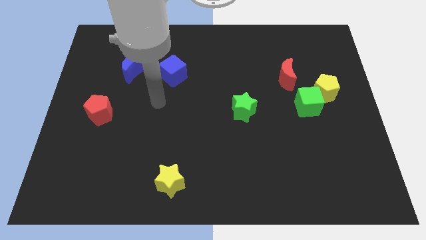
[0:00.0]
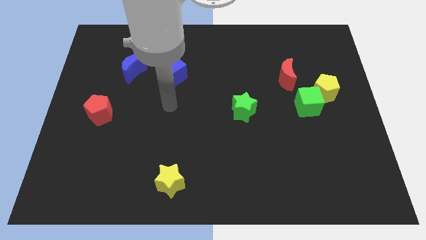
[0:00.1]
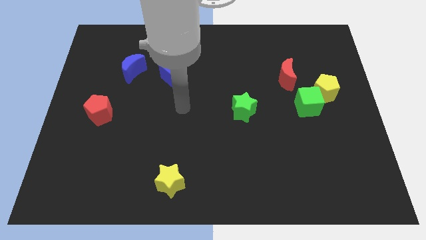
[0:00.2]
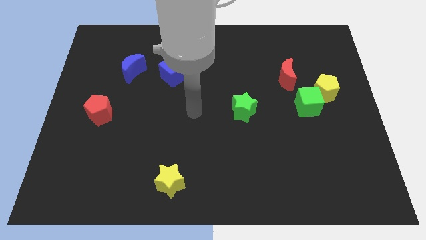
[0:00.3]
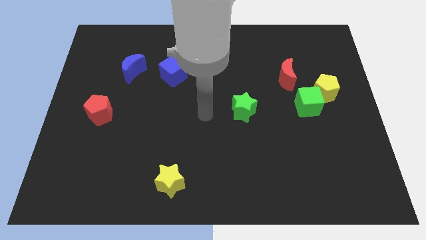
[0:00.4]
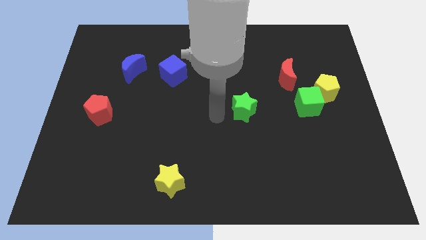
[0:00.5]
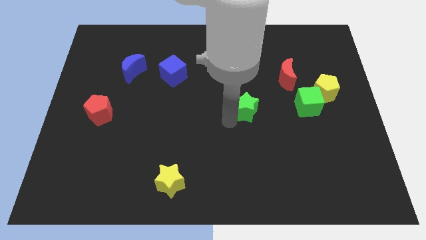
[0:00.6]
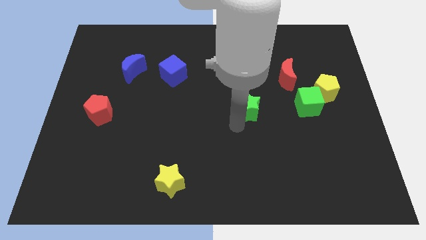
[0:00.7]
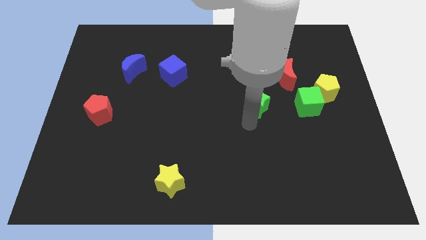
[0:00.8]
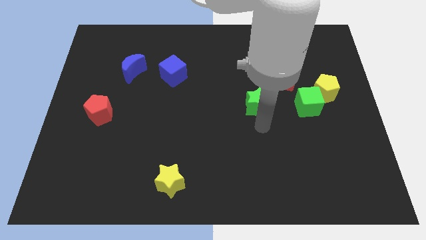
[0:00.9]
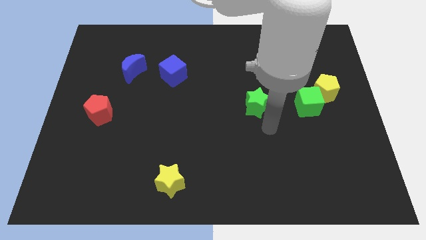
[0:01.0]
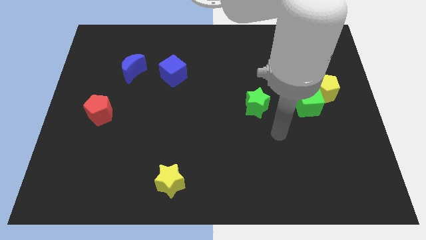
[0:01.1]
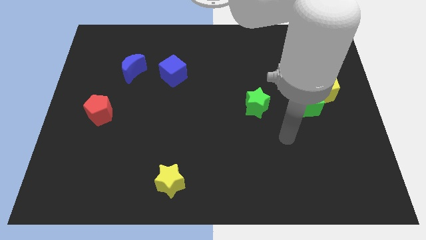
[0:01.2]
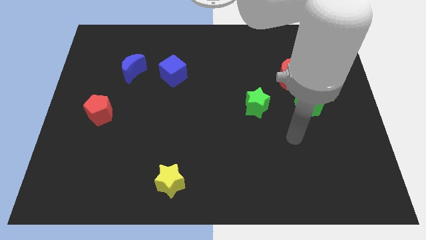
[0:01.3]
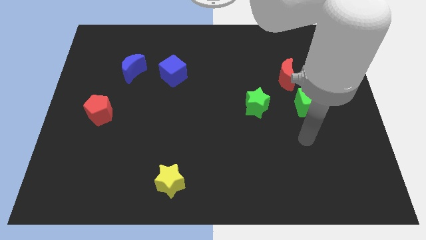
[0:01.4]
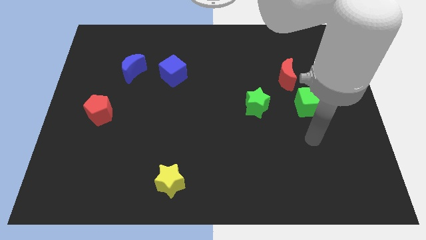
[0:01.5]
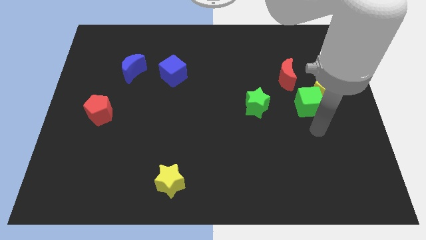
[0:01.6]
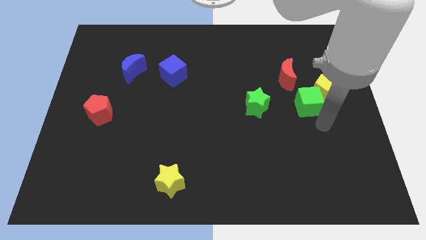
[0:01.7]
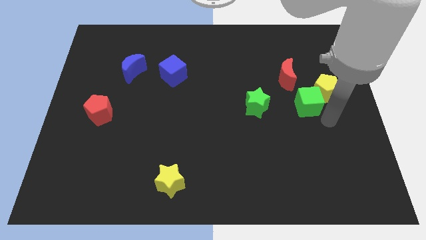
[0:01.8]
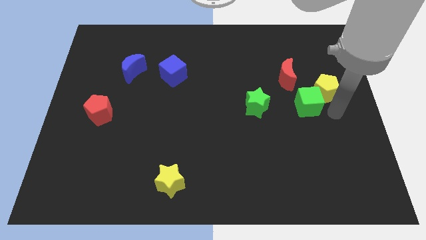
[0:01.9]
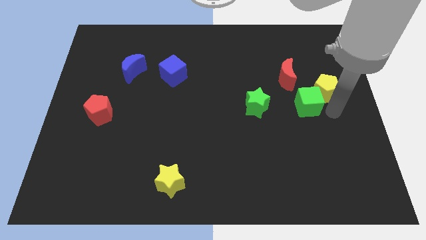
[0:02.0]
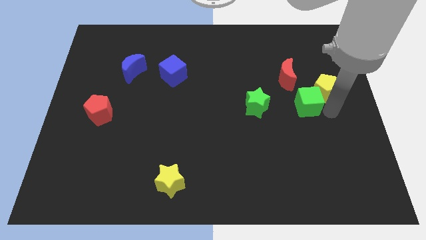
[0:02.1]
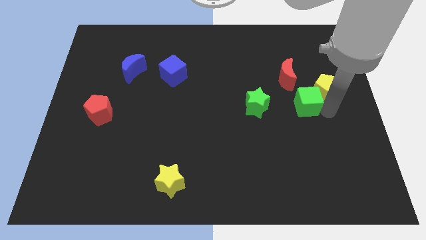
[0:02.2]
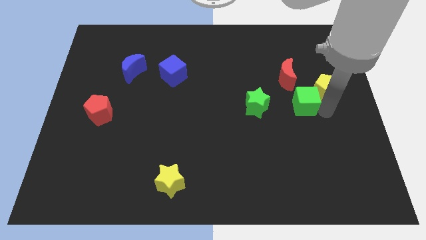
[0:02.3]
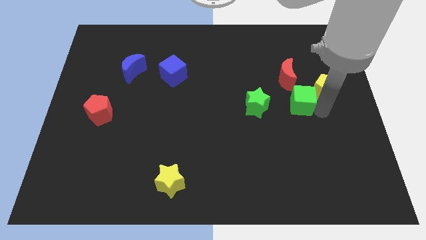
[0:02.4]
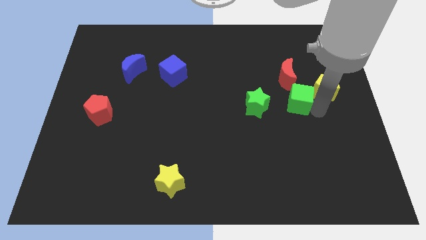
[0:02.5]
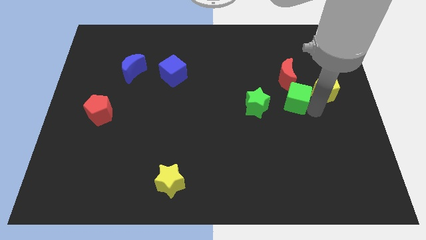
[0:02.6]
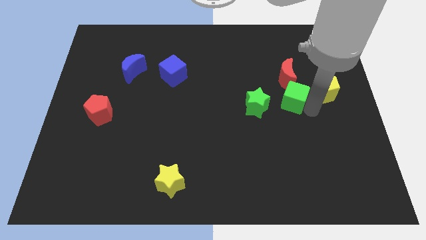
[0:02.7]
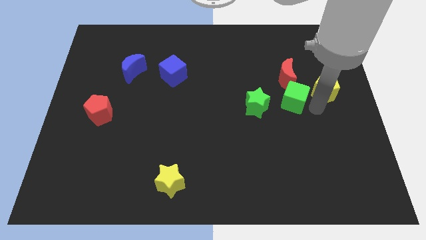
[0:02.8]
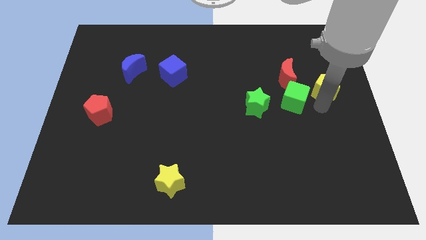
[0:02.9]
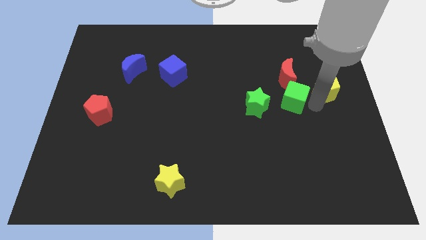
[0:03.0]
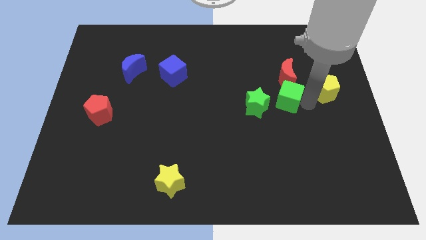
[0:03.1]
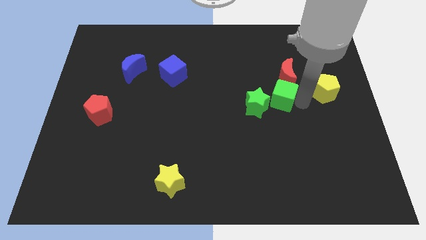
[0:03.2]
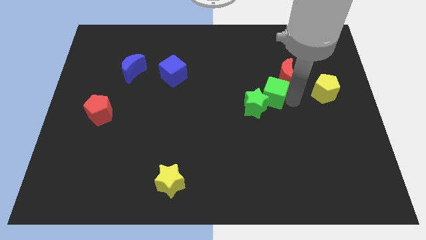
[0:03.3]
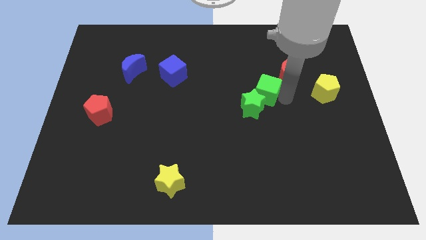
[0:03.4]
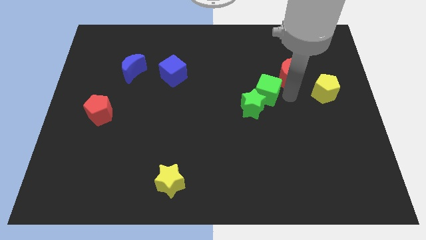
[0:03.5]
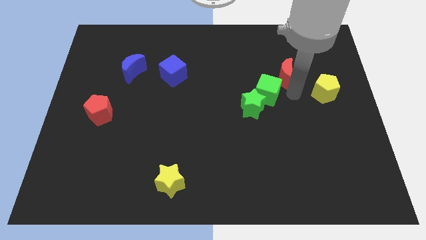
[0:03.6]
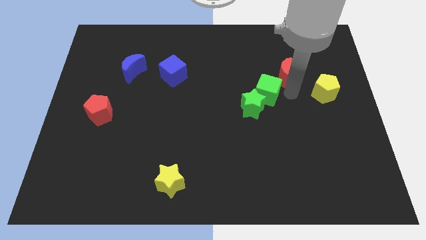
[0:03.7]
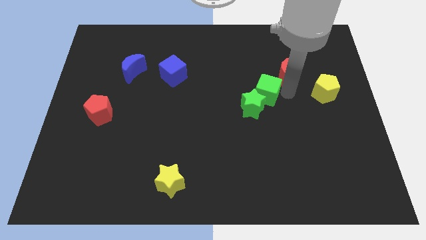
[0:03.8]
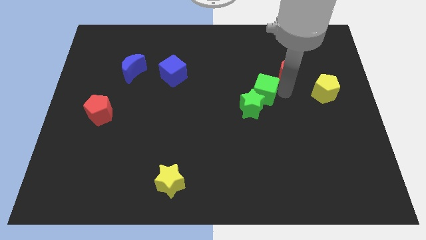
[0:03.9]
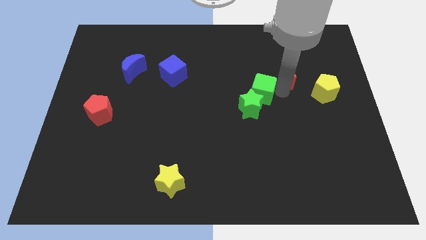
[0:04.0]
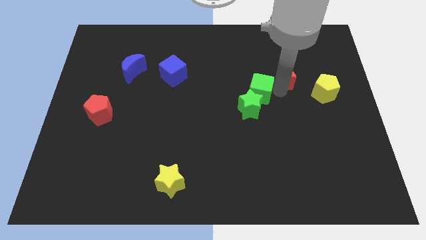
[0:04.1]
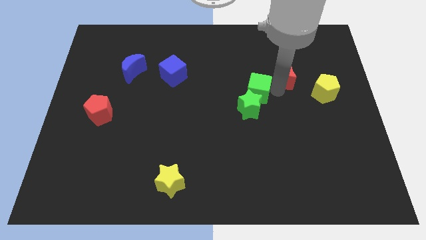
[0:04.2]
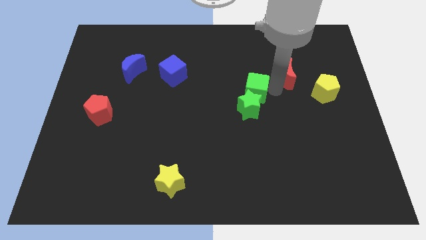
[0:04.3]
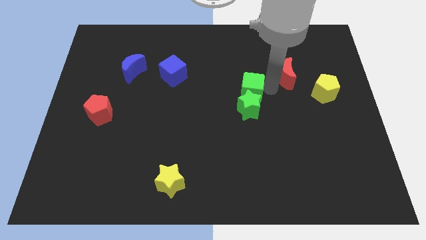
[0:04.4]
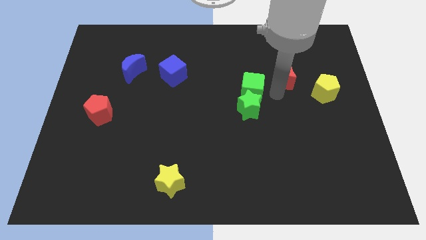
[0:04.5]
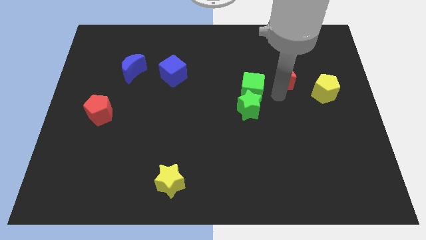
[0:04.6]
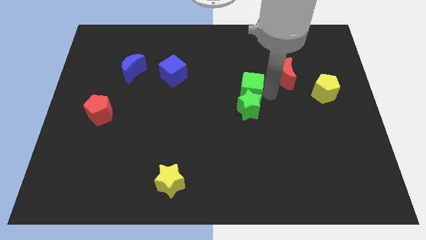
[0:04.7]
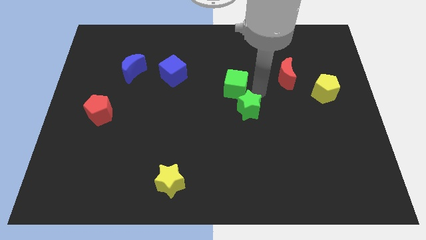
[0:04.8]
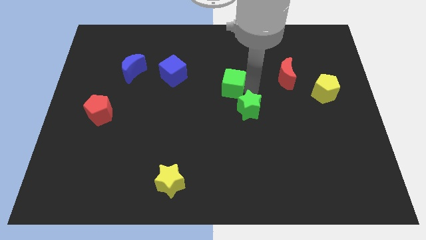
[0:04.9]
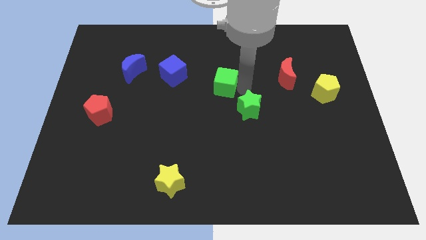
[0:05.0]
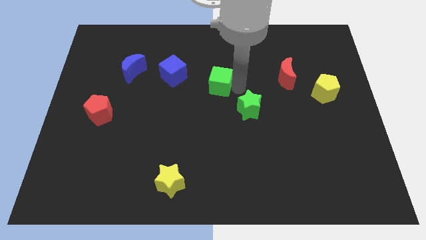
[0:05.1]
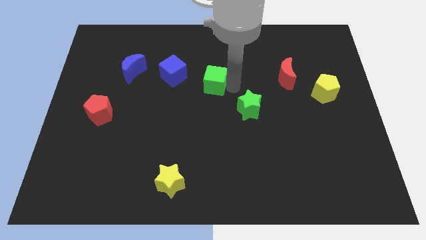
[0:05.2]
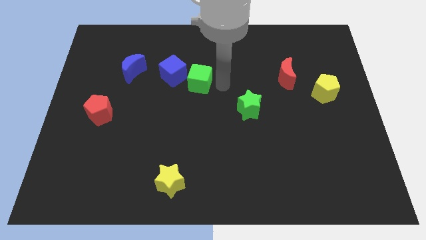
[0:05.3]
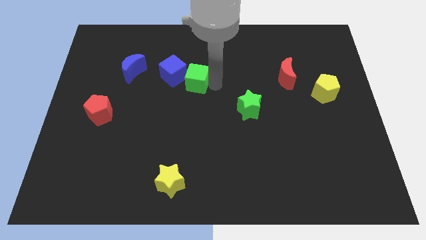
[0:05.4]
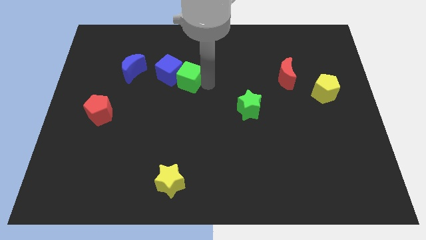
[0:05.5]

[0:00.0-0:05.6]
move the green cube towards the blue cube

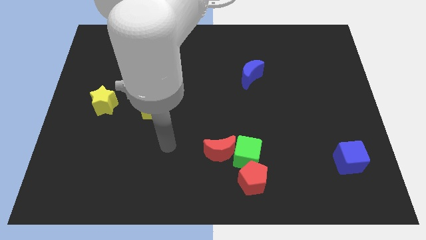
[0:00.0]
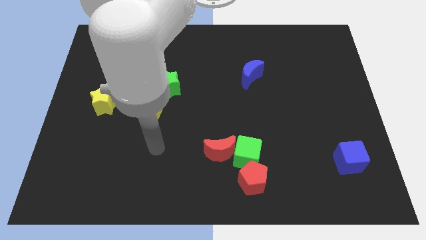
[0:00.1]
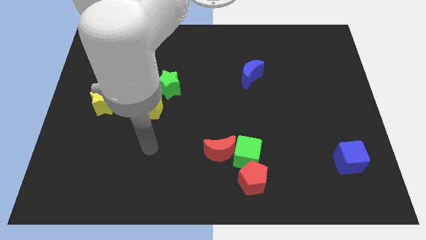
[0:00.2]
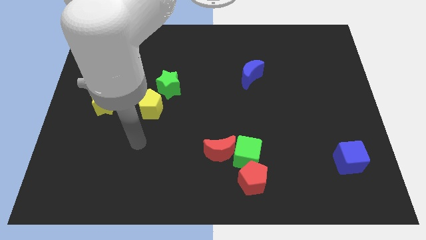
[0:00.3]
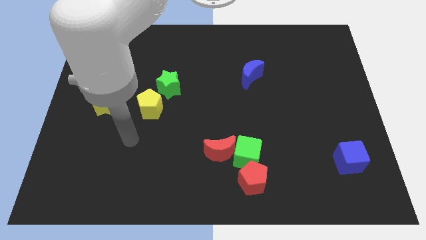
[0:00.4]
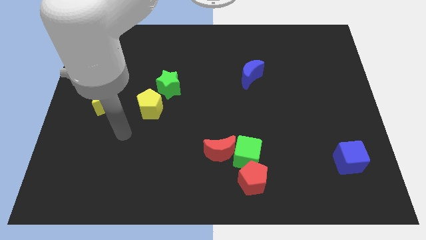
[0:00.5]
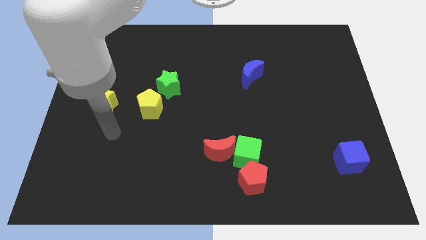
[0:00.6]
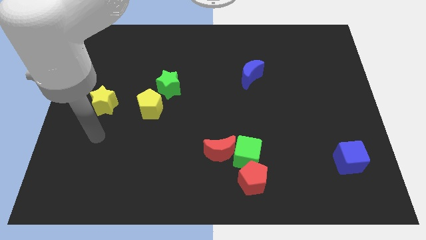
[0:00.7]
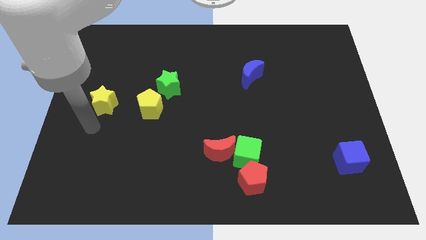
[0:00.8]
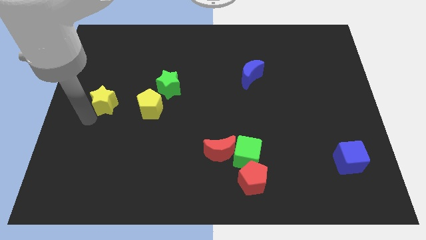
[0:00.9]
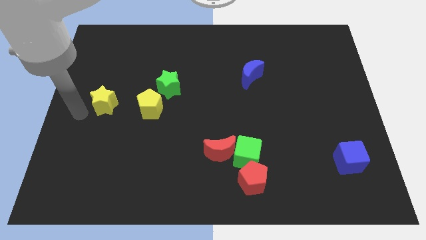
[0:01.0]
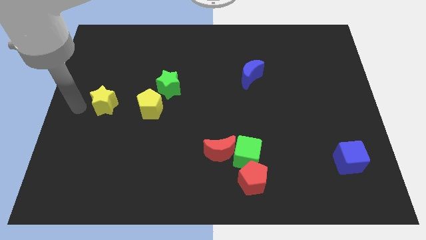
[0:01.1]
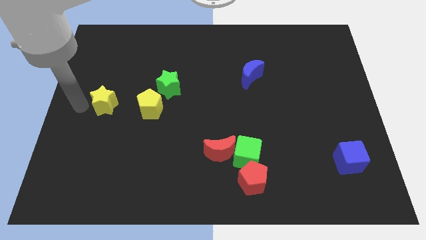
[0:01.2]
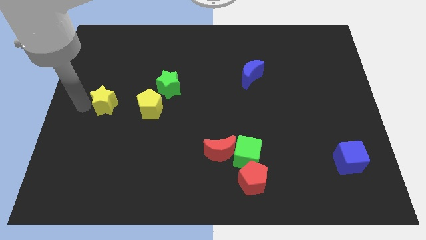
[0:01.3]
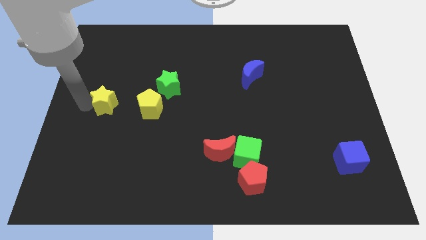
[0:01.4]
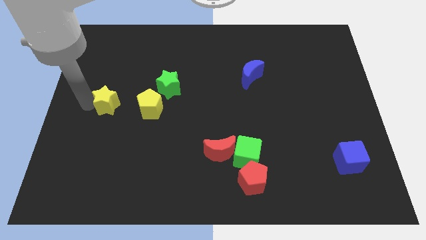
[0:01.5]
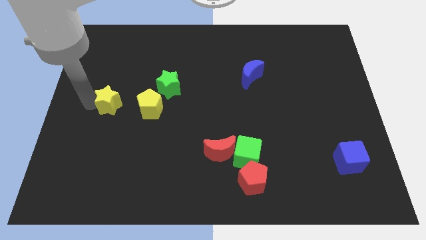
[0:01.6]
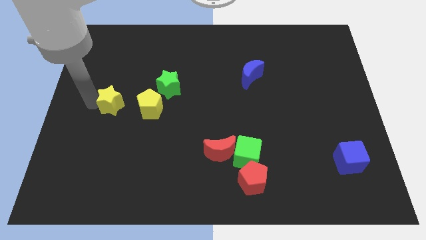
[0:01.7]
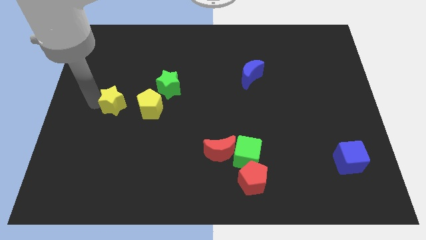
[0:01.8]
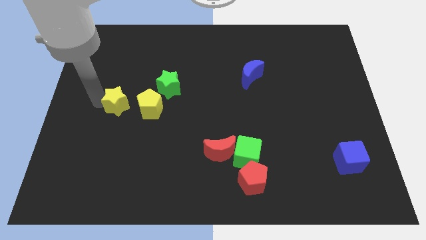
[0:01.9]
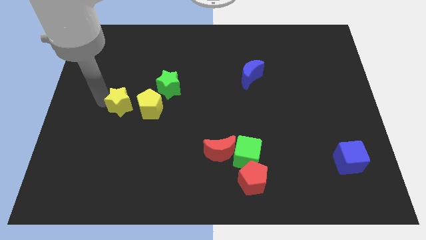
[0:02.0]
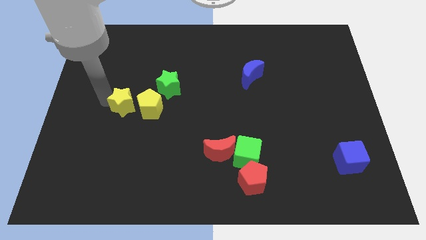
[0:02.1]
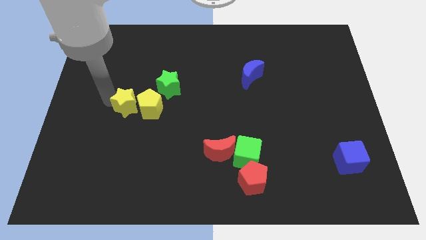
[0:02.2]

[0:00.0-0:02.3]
push the yellow star to the yellow pentagon
